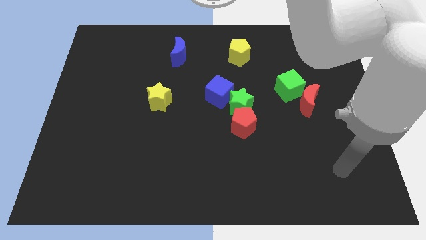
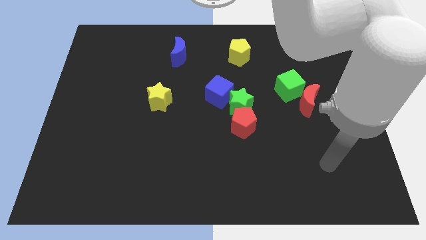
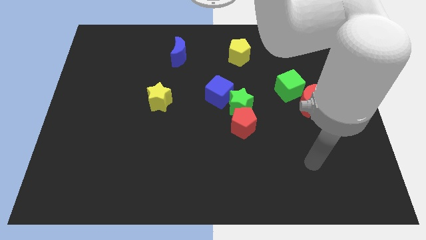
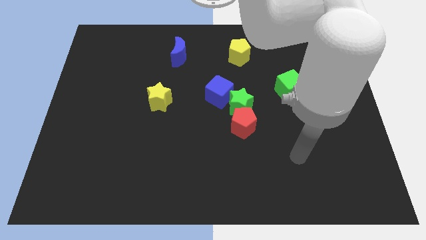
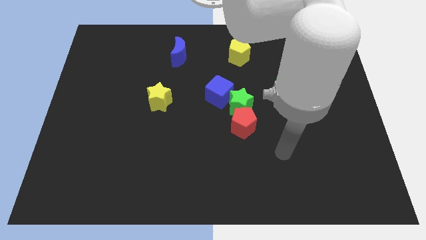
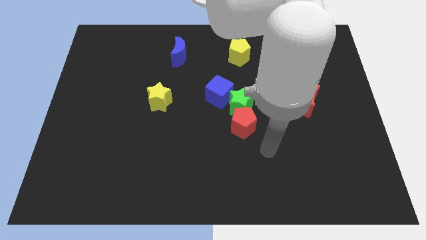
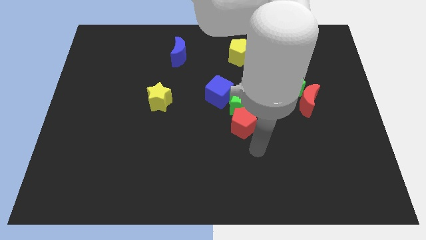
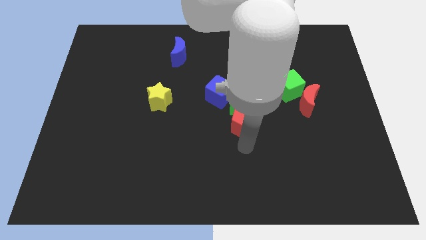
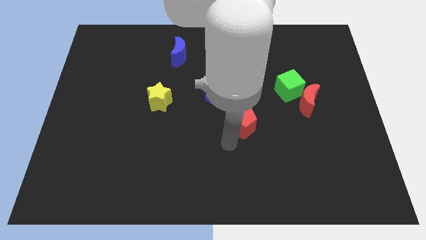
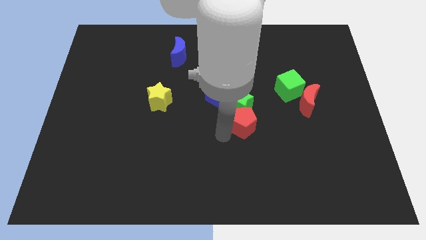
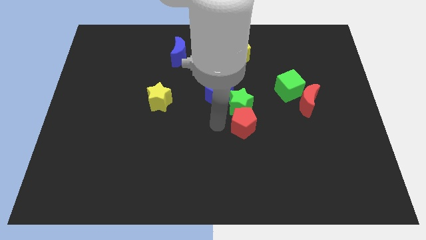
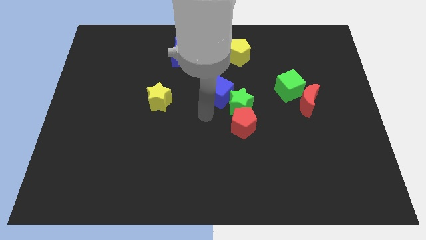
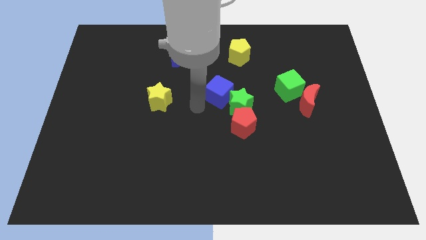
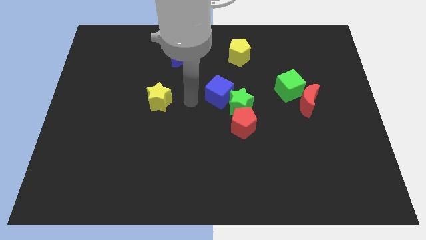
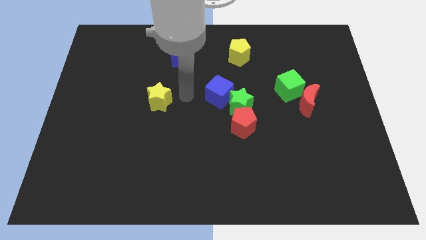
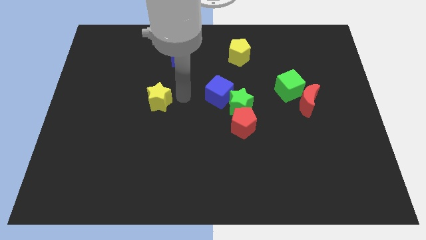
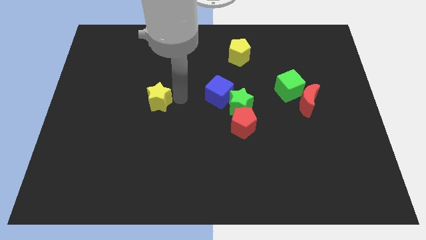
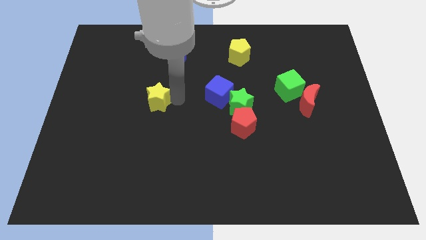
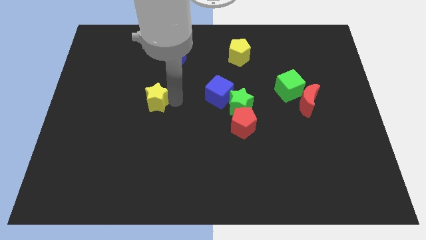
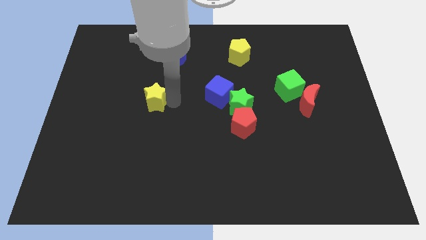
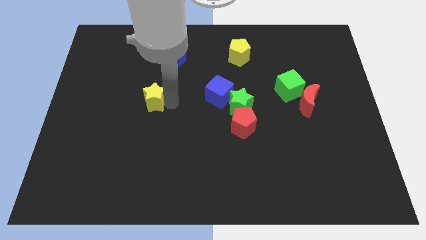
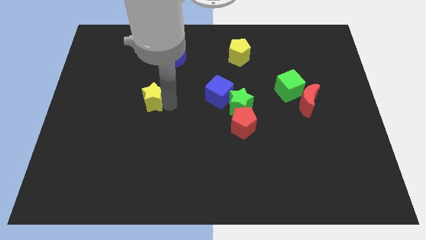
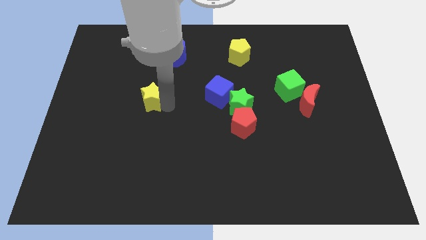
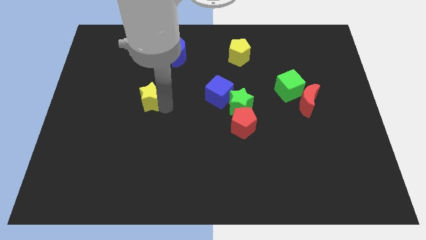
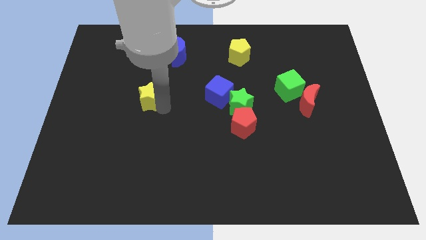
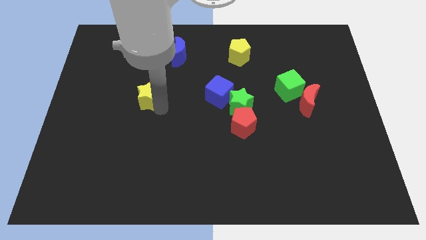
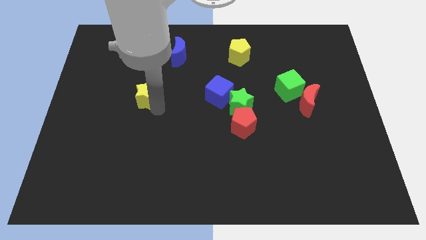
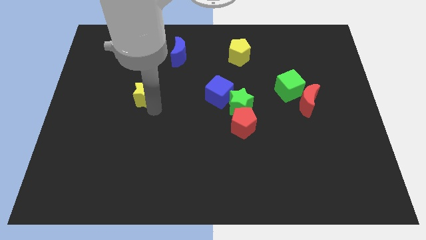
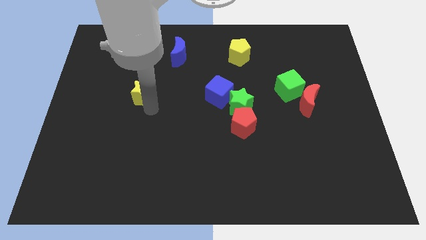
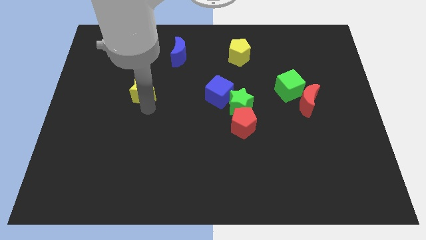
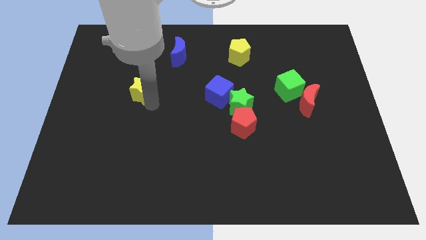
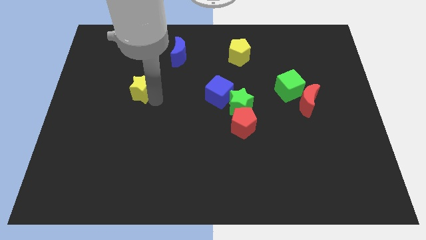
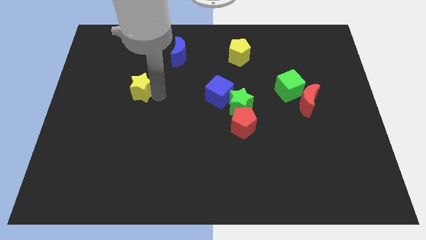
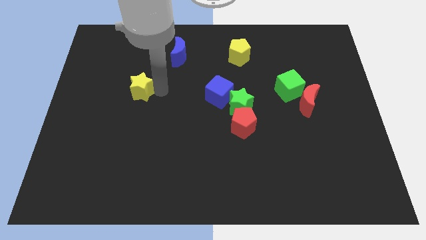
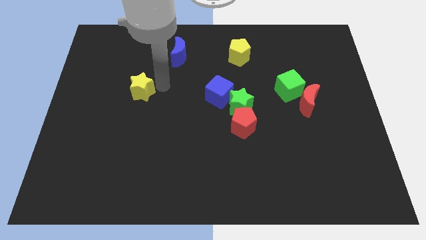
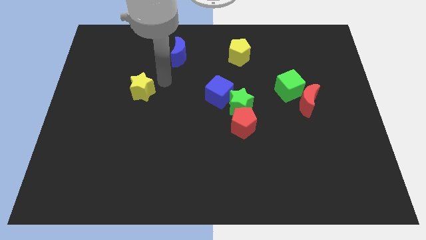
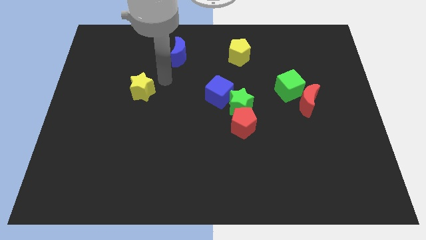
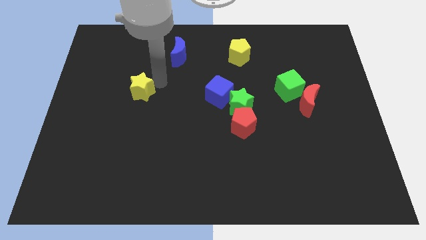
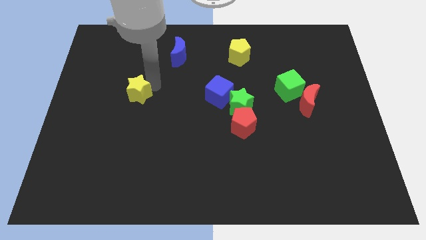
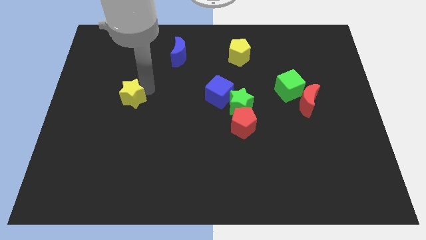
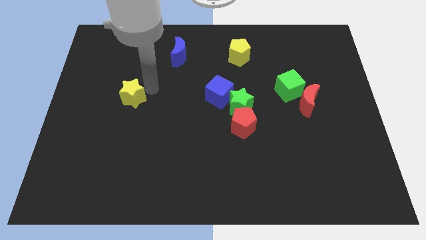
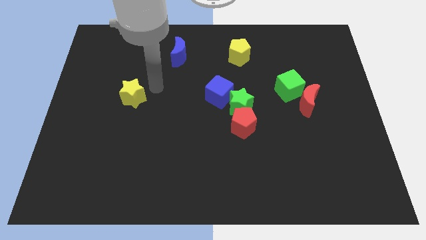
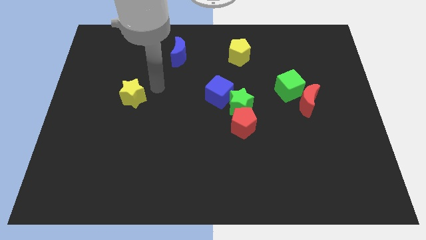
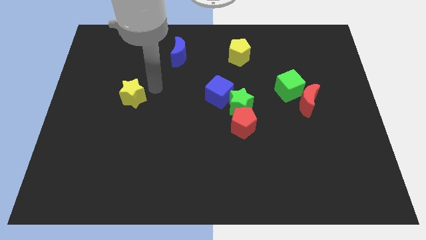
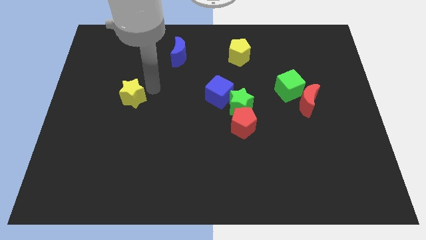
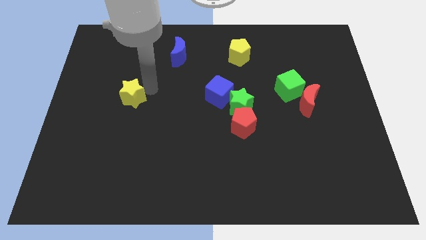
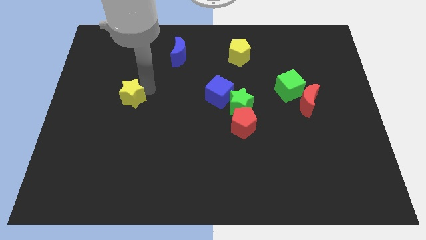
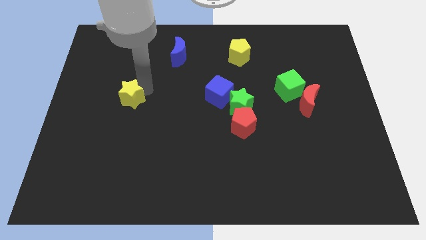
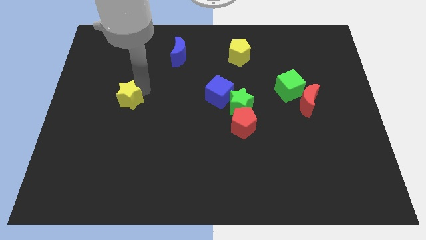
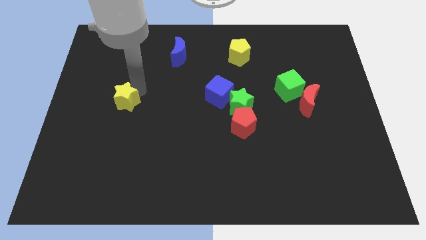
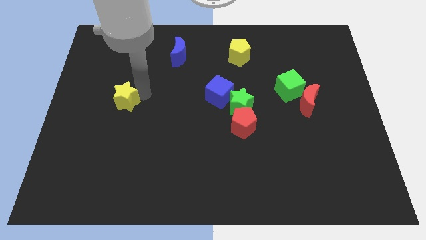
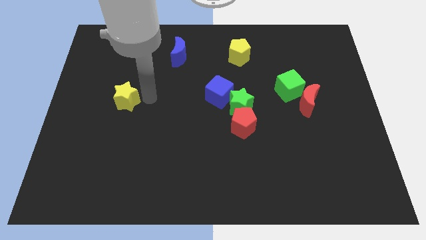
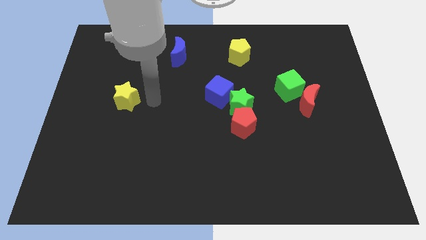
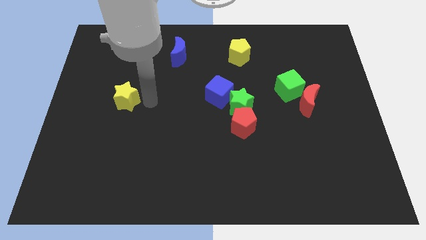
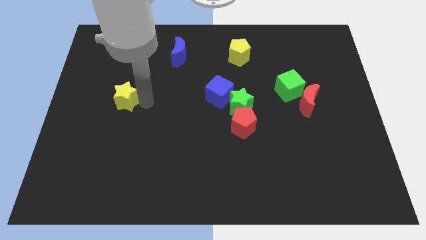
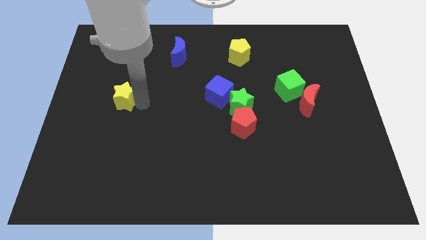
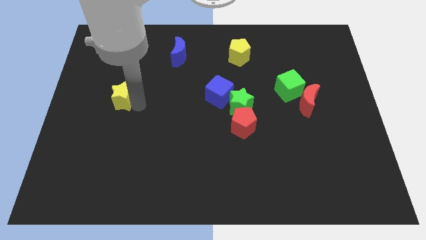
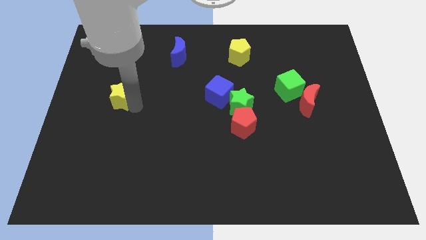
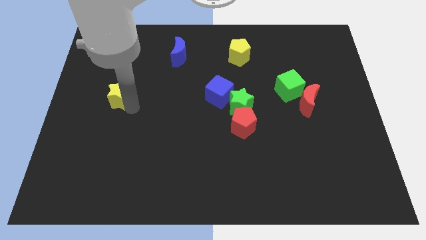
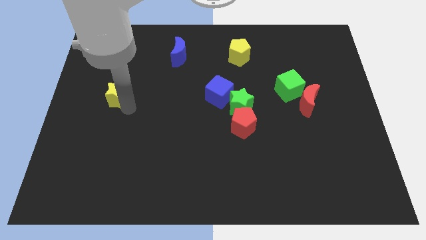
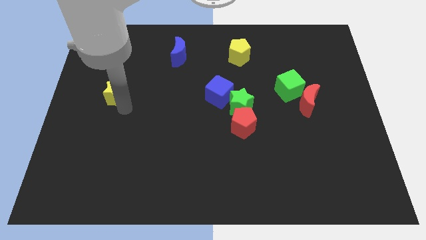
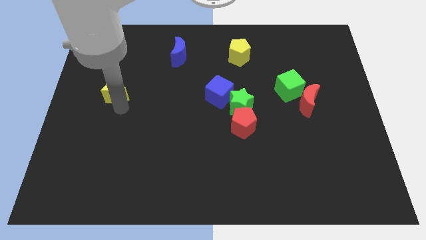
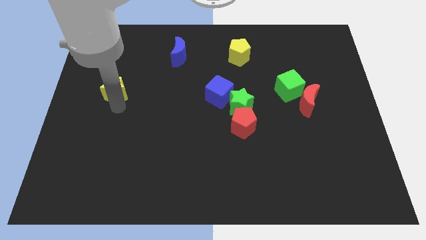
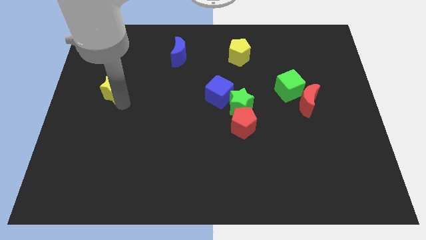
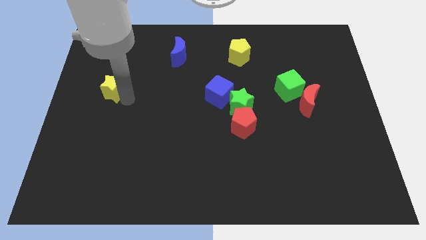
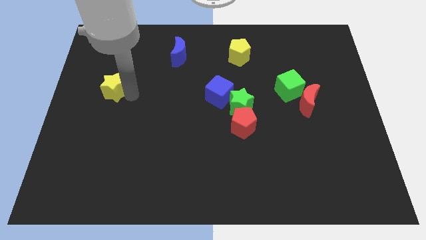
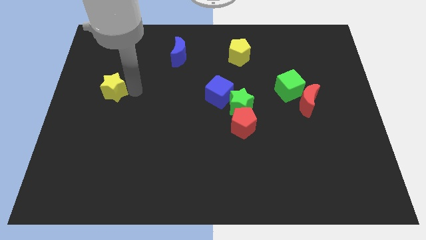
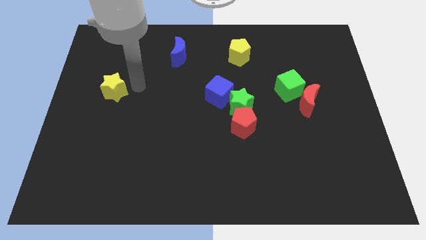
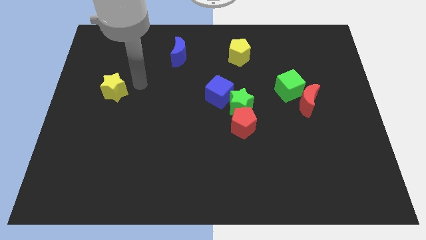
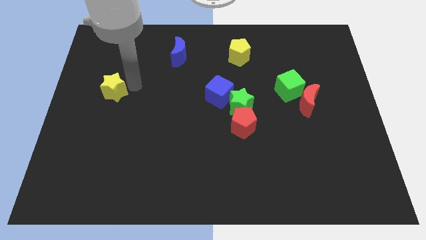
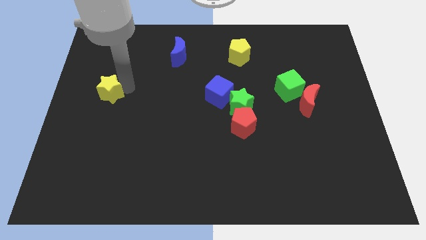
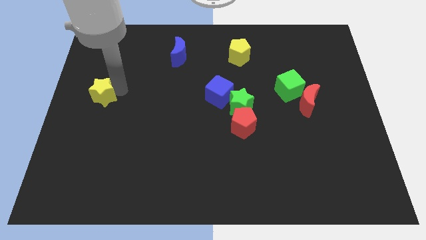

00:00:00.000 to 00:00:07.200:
move the yellow star to the left side of the board
